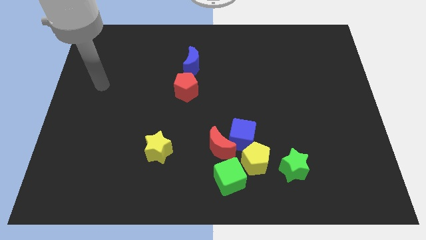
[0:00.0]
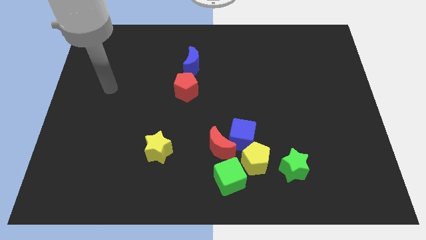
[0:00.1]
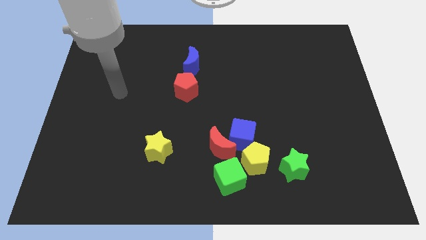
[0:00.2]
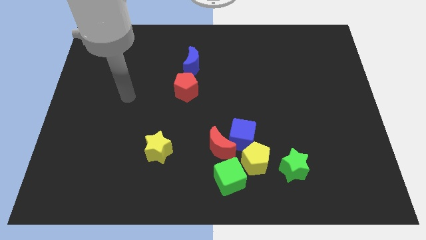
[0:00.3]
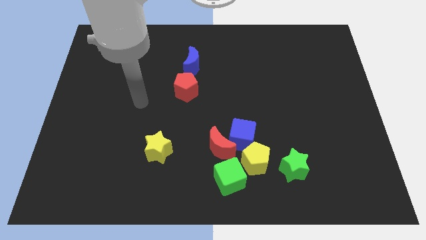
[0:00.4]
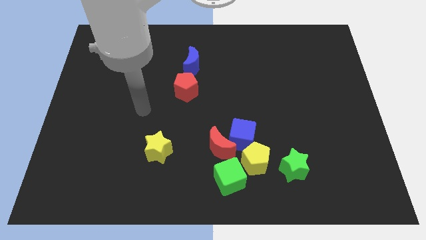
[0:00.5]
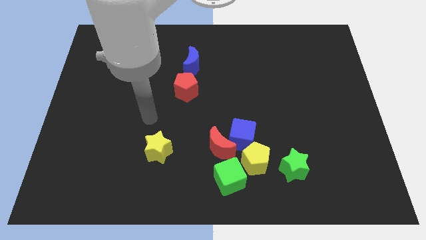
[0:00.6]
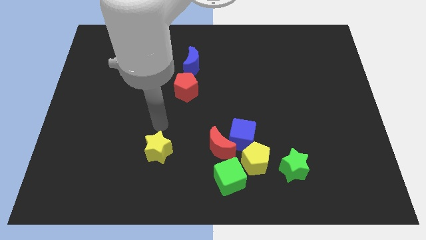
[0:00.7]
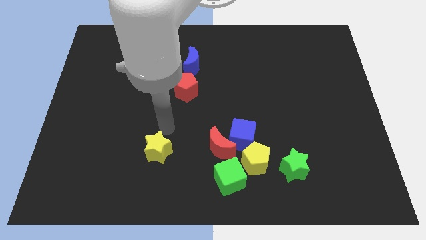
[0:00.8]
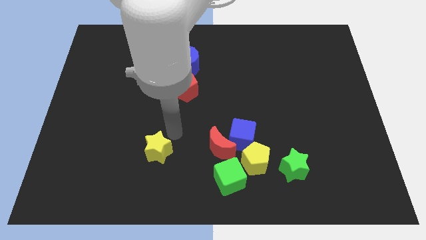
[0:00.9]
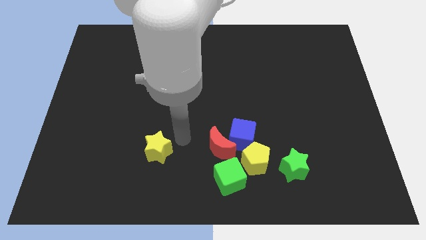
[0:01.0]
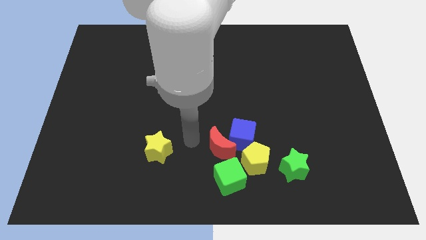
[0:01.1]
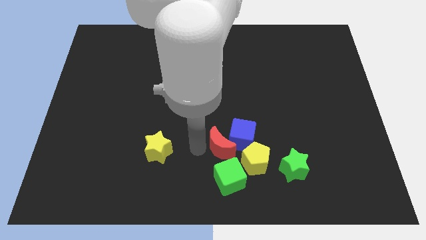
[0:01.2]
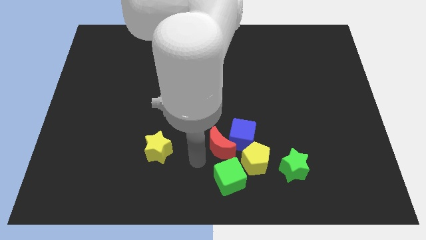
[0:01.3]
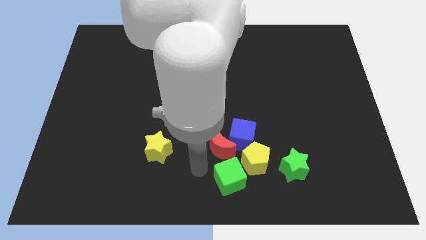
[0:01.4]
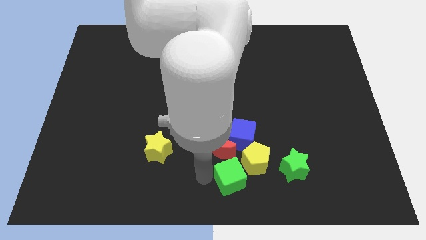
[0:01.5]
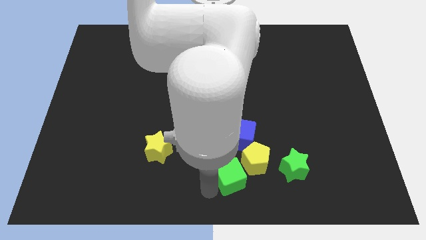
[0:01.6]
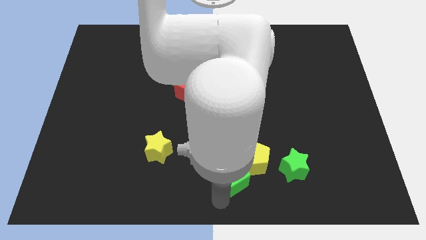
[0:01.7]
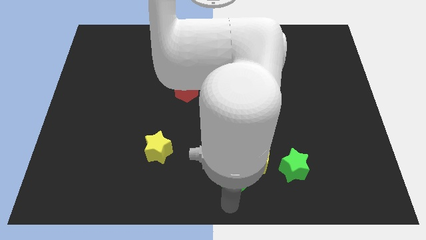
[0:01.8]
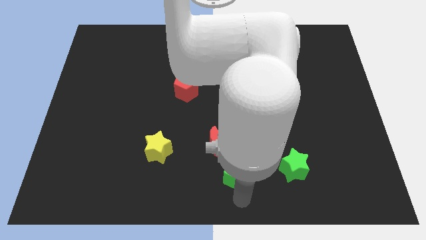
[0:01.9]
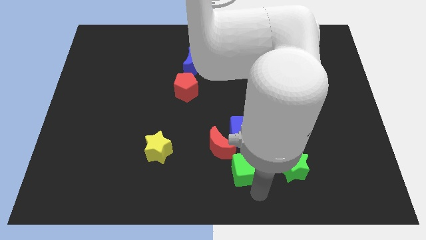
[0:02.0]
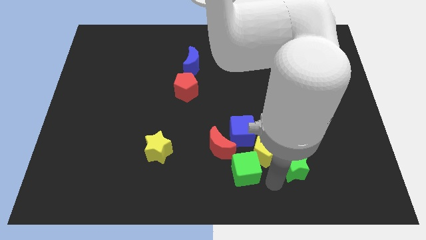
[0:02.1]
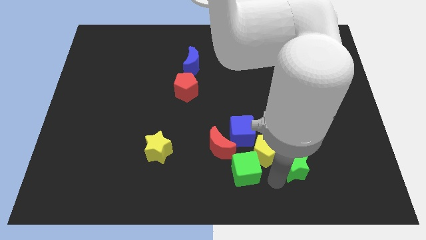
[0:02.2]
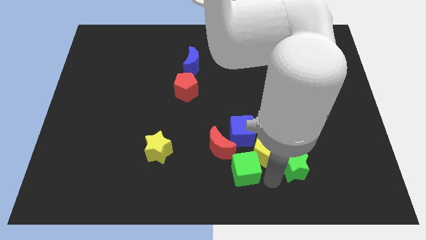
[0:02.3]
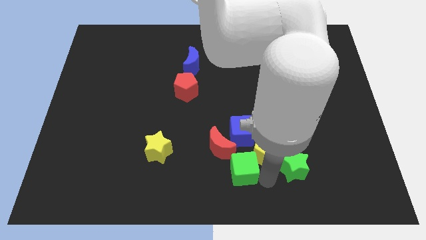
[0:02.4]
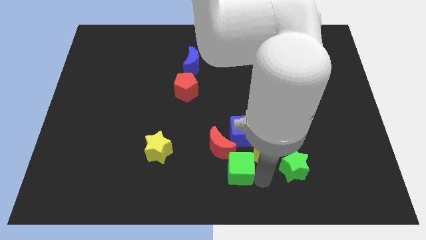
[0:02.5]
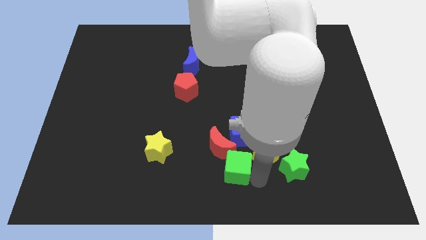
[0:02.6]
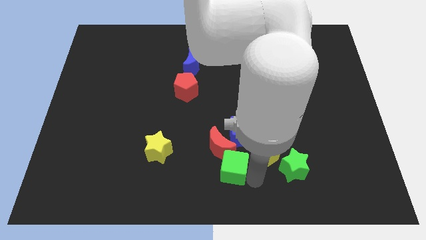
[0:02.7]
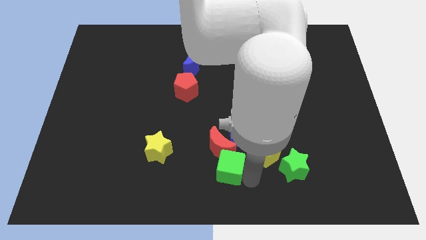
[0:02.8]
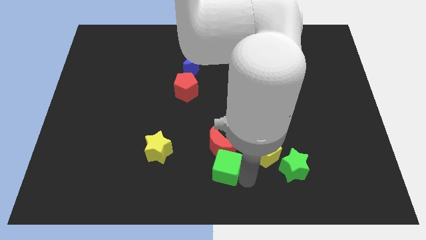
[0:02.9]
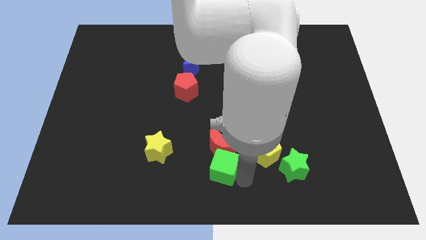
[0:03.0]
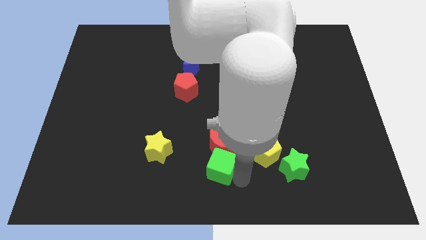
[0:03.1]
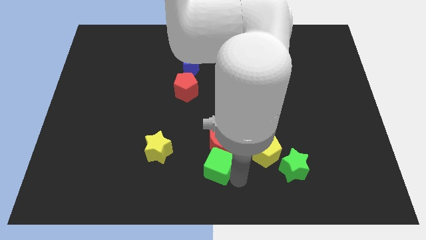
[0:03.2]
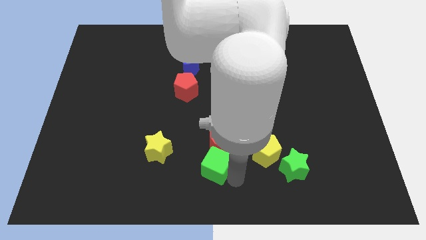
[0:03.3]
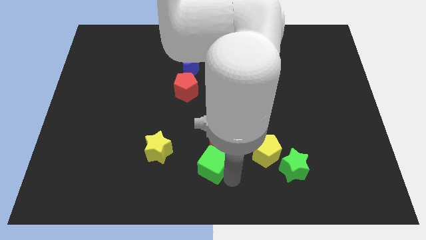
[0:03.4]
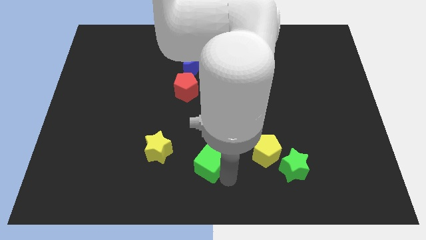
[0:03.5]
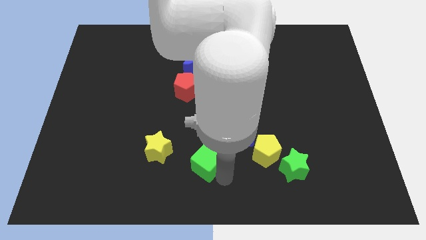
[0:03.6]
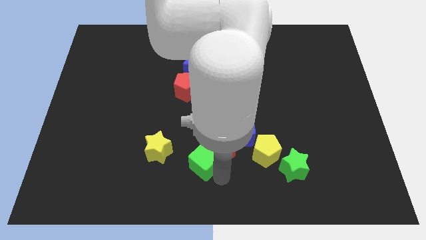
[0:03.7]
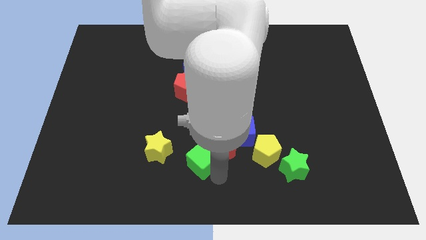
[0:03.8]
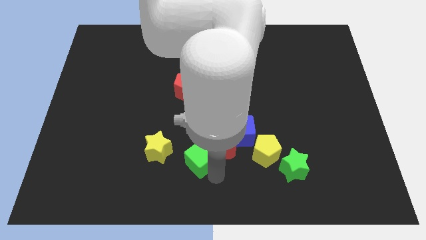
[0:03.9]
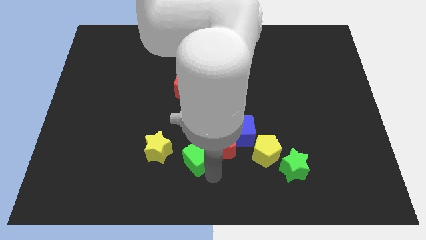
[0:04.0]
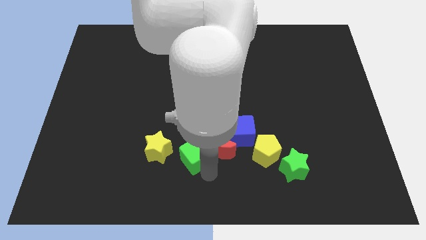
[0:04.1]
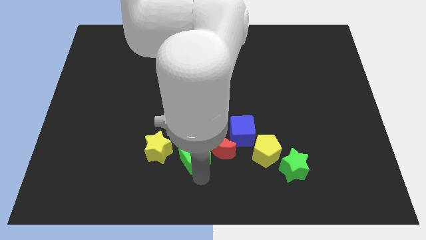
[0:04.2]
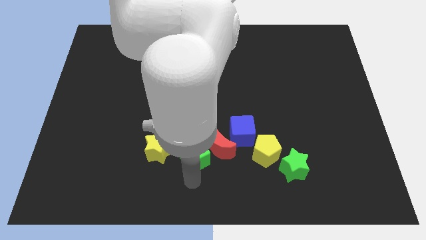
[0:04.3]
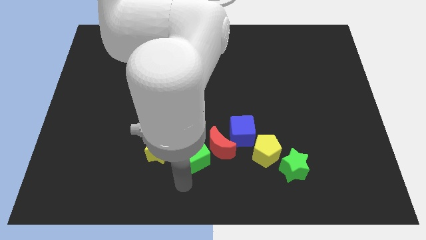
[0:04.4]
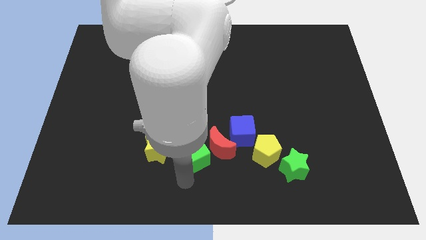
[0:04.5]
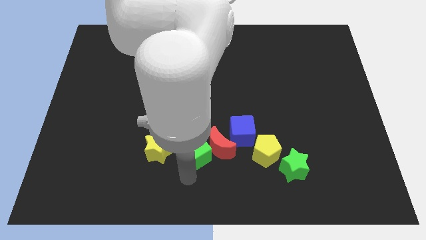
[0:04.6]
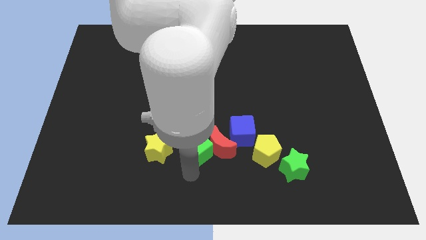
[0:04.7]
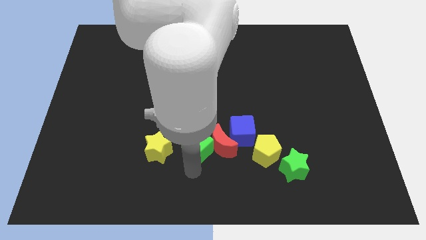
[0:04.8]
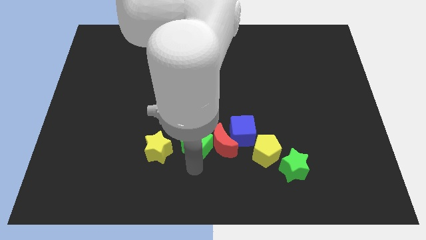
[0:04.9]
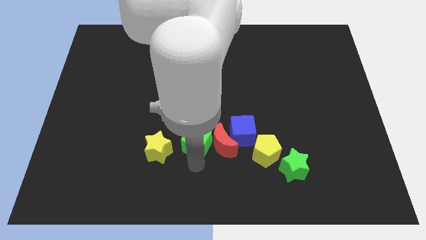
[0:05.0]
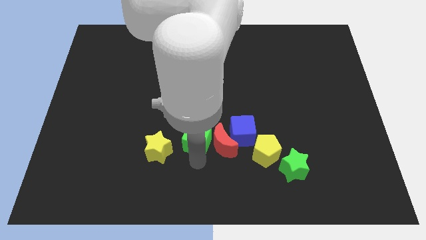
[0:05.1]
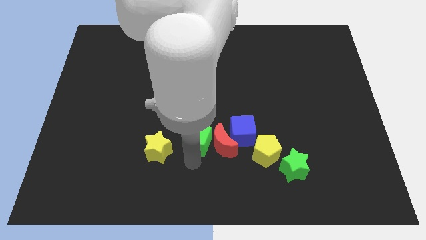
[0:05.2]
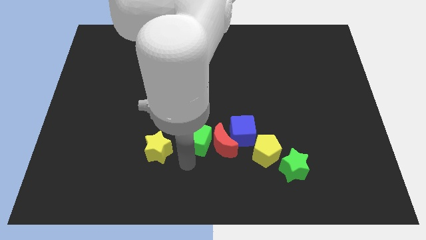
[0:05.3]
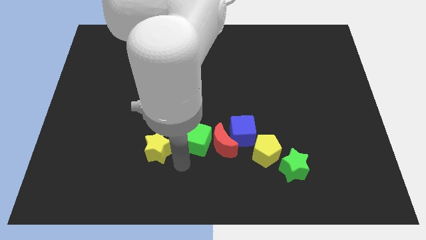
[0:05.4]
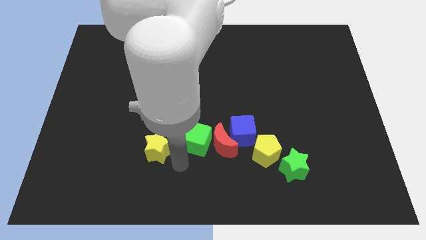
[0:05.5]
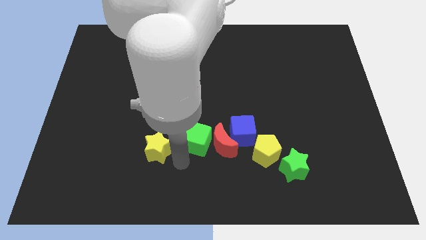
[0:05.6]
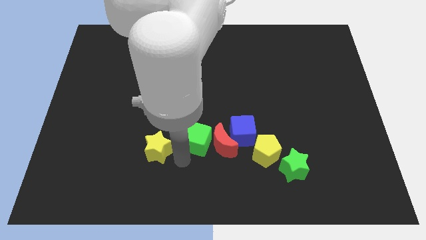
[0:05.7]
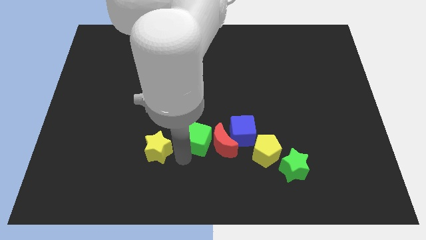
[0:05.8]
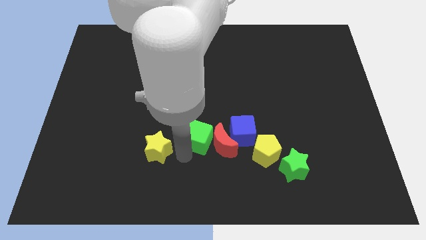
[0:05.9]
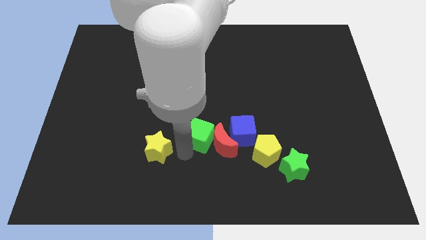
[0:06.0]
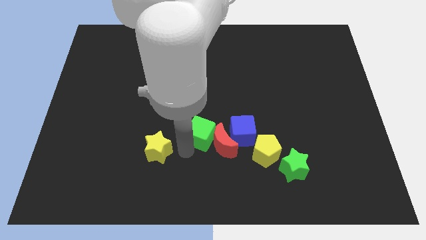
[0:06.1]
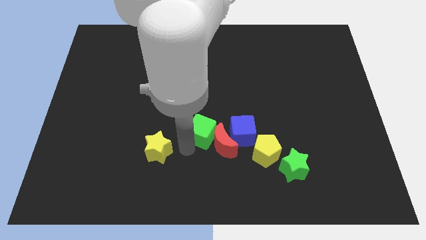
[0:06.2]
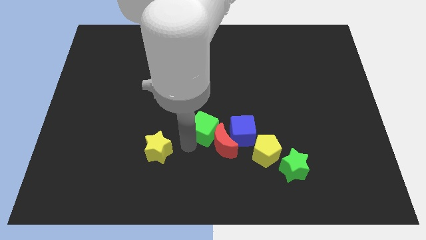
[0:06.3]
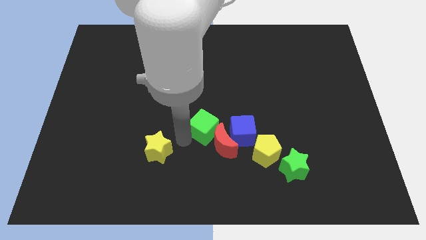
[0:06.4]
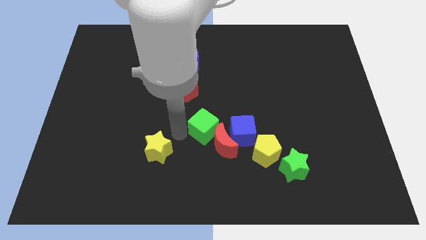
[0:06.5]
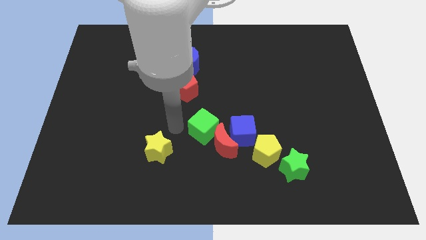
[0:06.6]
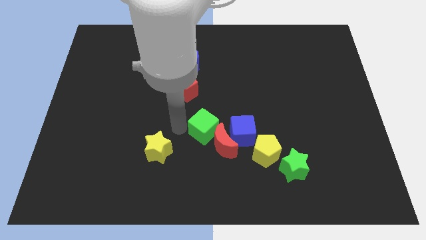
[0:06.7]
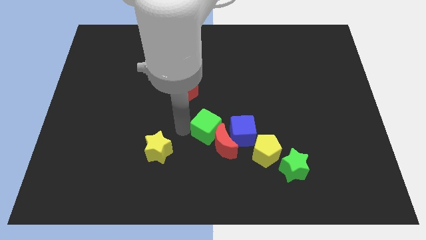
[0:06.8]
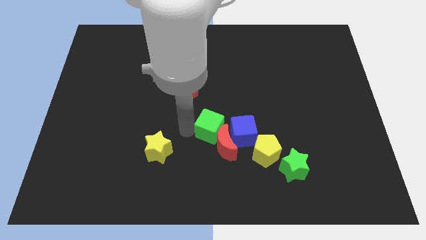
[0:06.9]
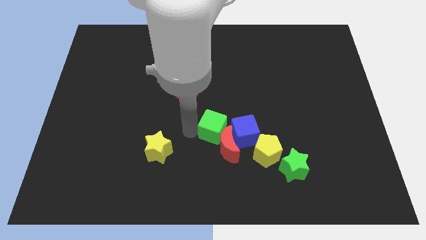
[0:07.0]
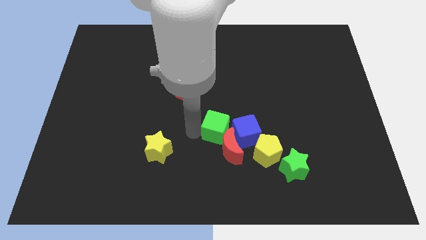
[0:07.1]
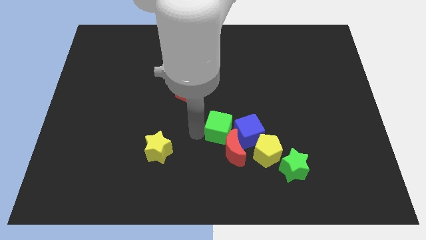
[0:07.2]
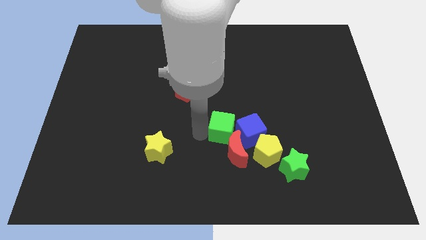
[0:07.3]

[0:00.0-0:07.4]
push the green cube towards the blue cube
